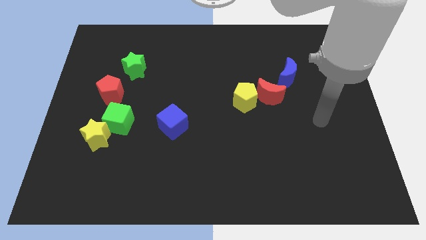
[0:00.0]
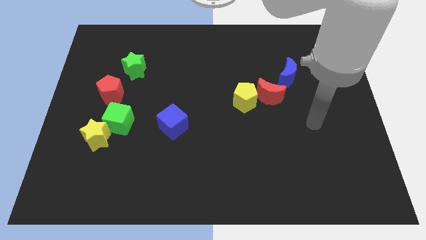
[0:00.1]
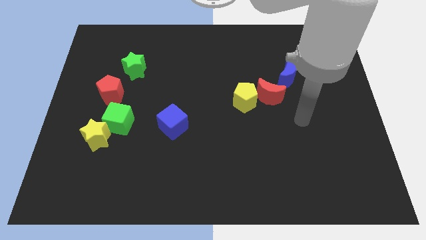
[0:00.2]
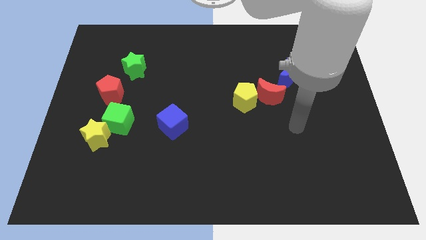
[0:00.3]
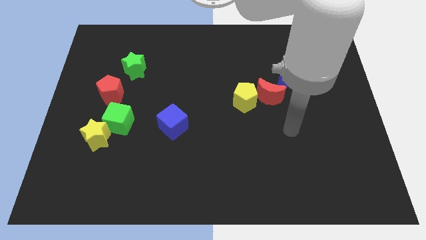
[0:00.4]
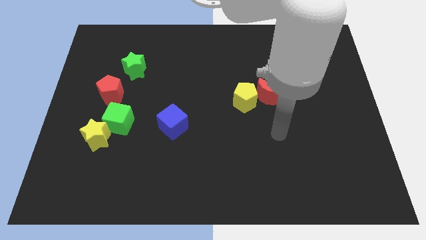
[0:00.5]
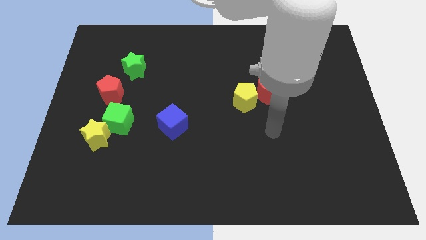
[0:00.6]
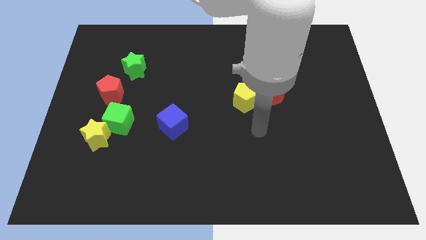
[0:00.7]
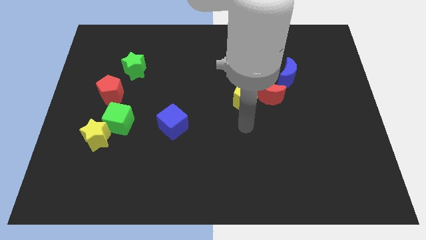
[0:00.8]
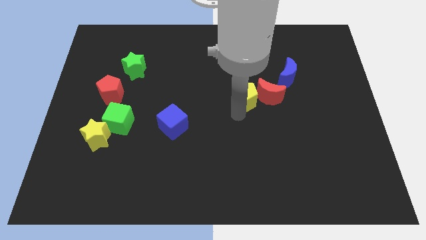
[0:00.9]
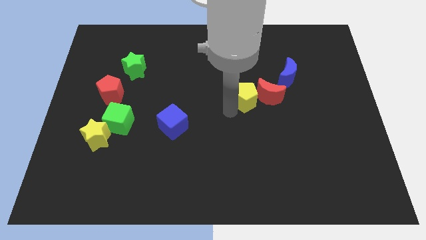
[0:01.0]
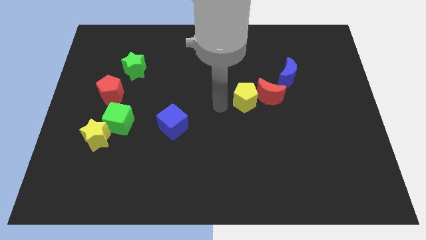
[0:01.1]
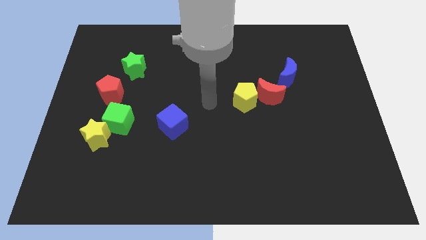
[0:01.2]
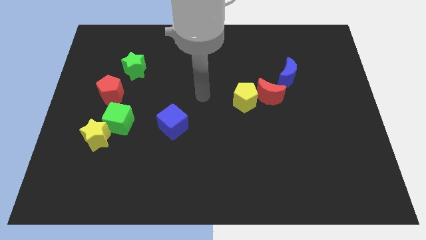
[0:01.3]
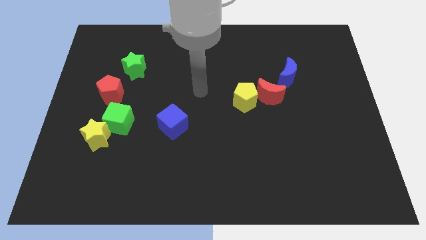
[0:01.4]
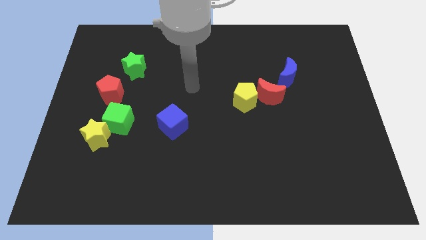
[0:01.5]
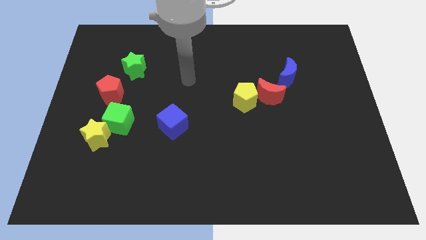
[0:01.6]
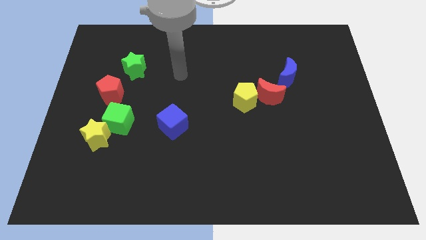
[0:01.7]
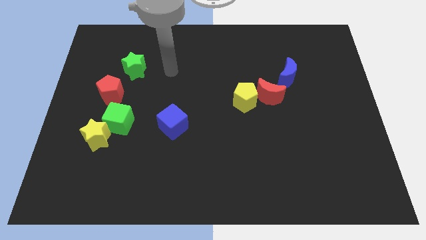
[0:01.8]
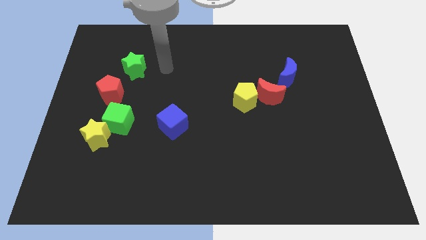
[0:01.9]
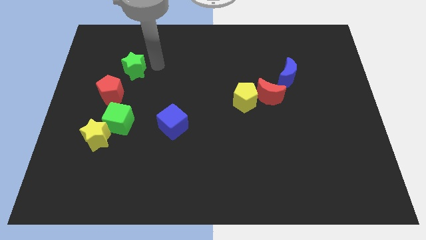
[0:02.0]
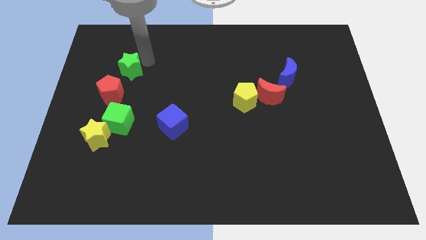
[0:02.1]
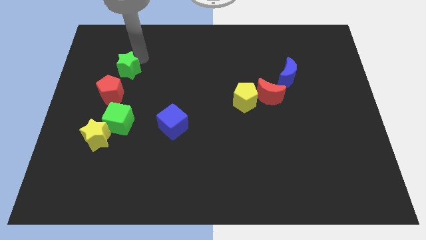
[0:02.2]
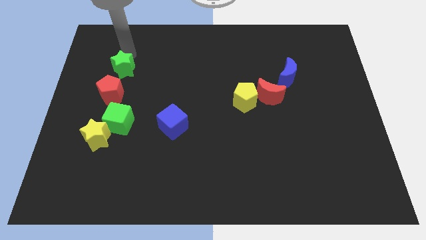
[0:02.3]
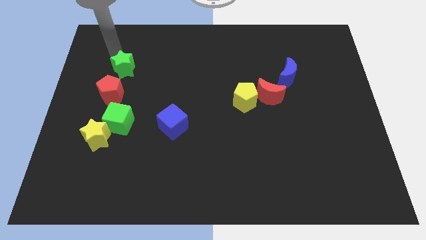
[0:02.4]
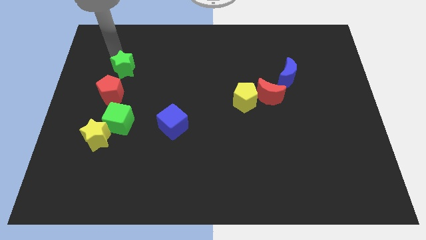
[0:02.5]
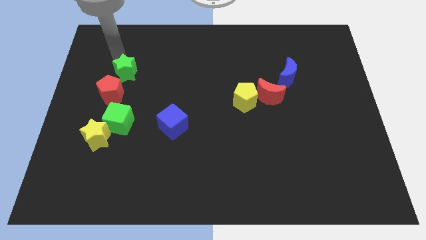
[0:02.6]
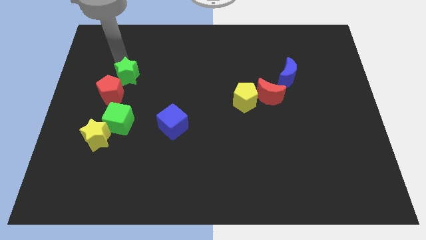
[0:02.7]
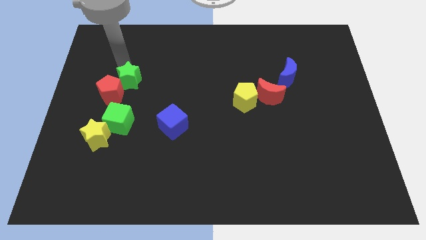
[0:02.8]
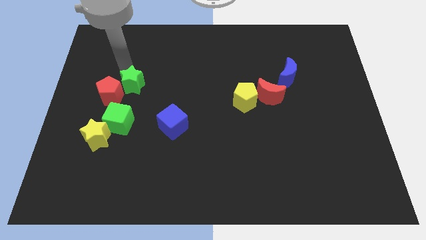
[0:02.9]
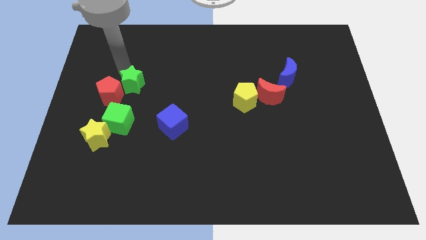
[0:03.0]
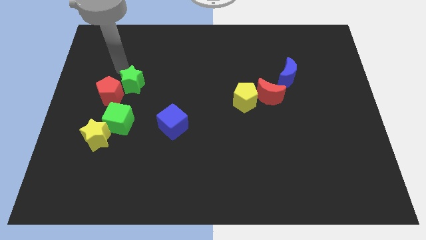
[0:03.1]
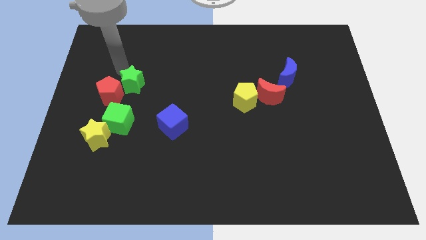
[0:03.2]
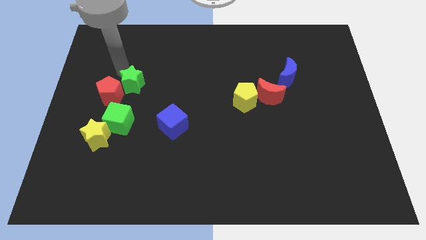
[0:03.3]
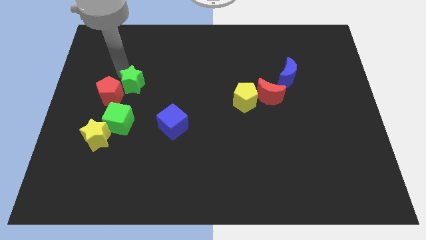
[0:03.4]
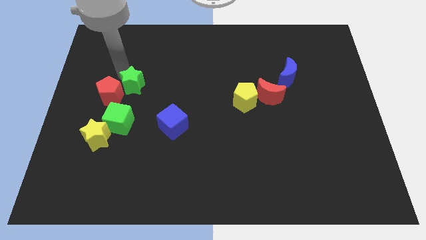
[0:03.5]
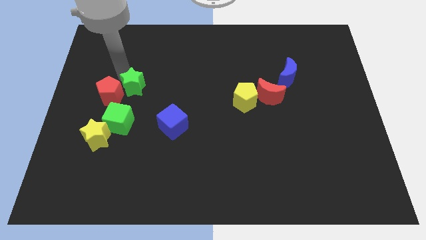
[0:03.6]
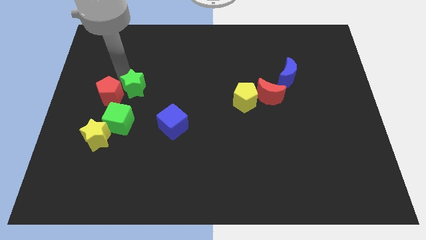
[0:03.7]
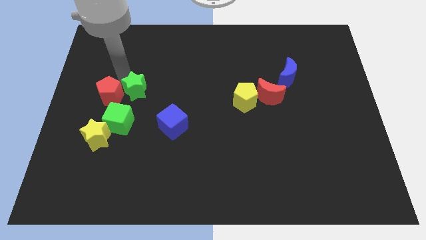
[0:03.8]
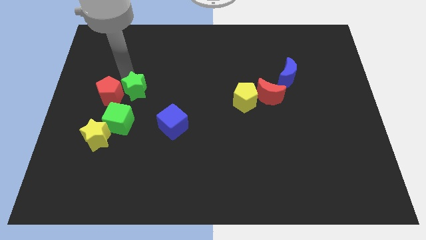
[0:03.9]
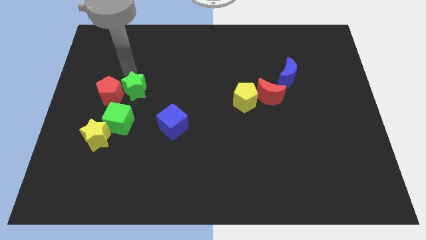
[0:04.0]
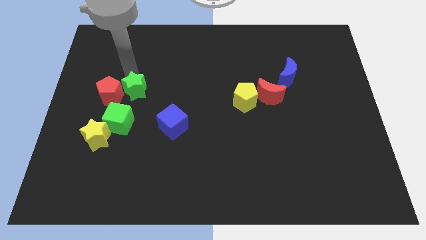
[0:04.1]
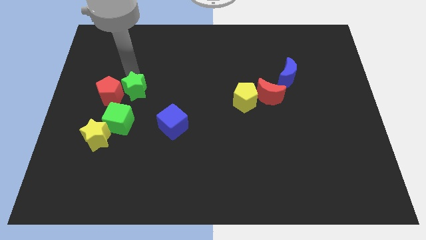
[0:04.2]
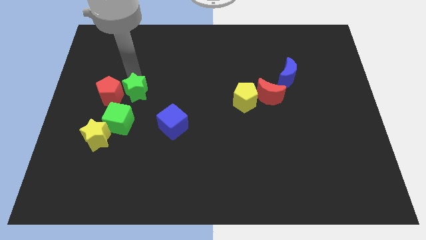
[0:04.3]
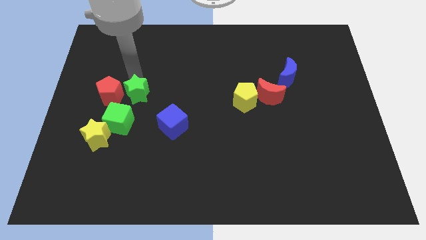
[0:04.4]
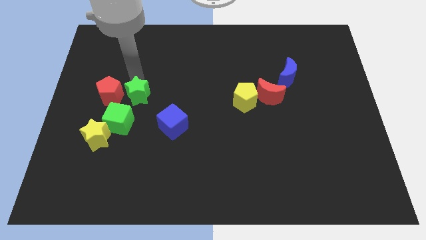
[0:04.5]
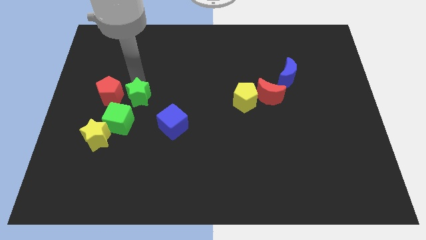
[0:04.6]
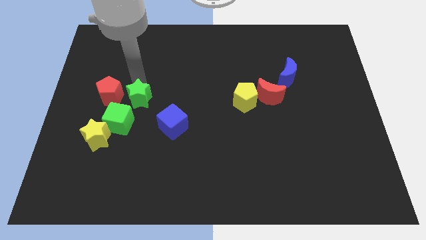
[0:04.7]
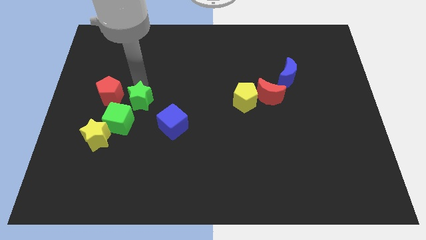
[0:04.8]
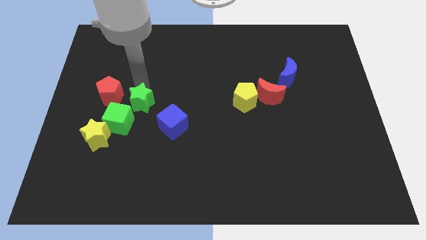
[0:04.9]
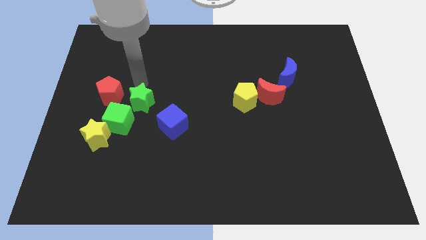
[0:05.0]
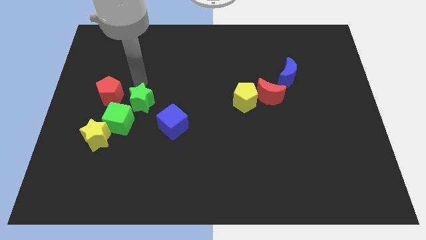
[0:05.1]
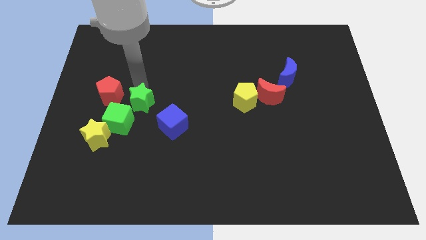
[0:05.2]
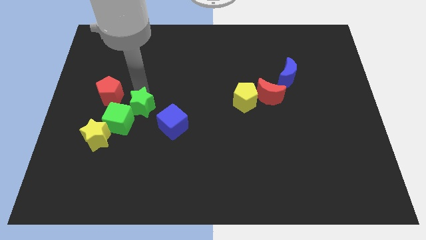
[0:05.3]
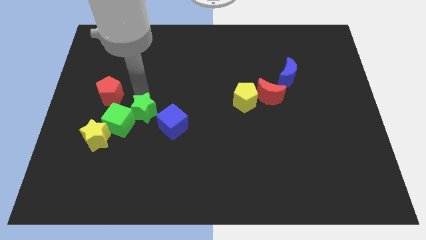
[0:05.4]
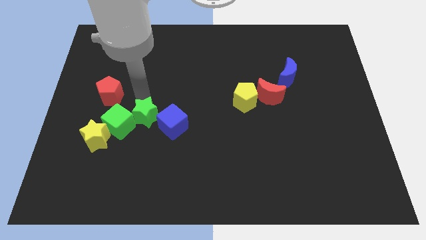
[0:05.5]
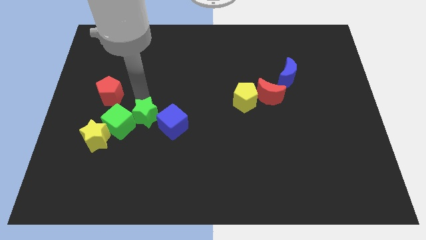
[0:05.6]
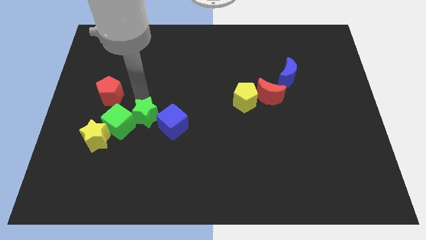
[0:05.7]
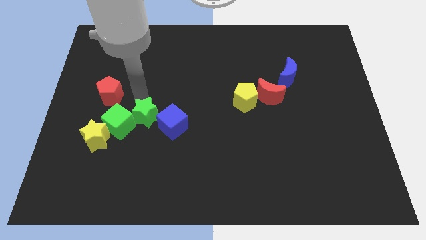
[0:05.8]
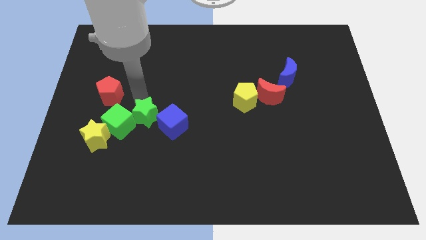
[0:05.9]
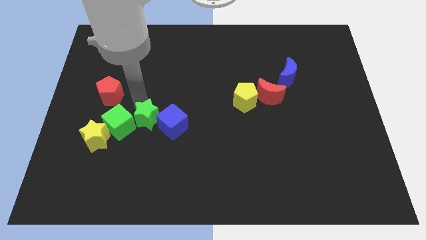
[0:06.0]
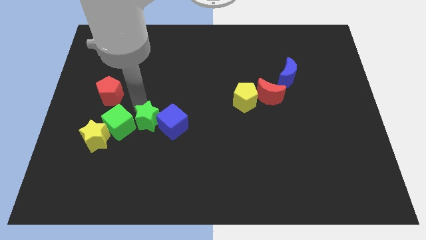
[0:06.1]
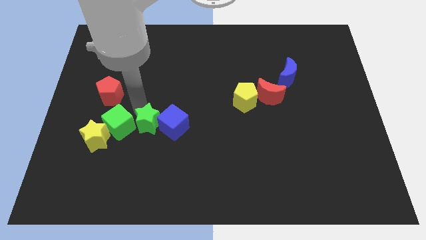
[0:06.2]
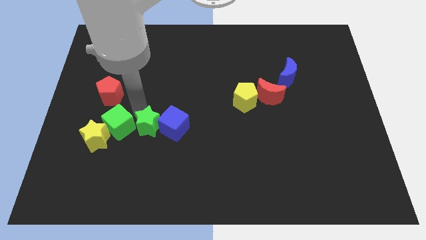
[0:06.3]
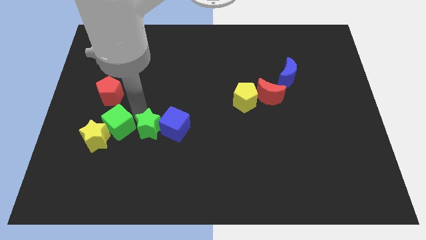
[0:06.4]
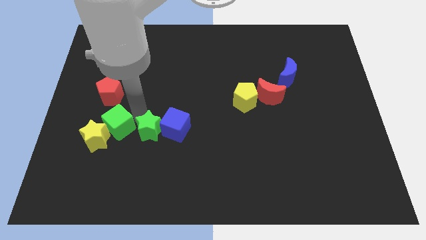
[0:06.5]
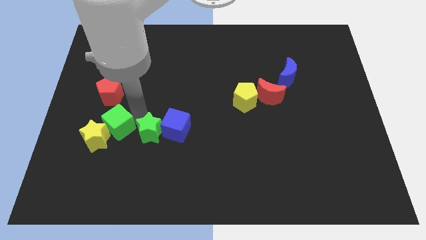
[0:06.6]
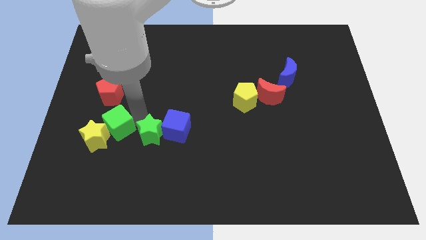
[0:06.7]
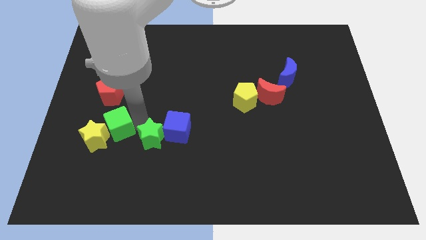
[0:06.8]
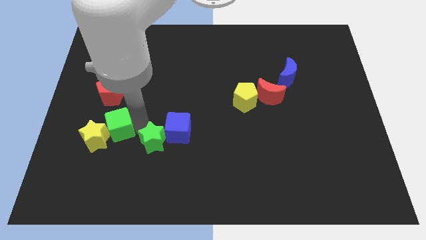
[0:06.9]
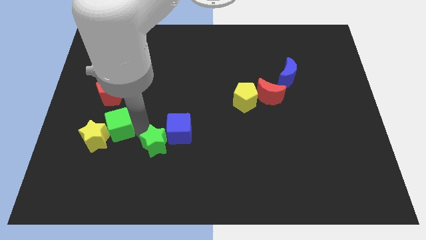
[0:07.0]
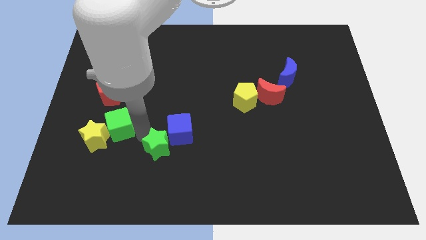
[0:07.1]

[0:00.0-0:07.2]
move the green star below the blue cube

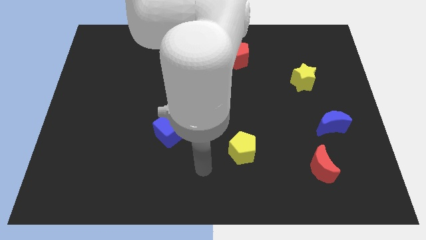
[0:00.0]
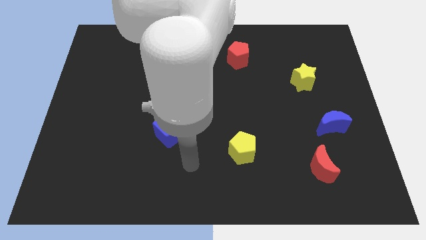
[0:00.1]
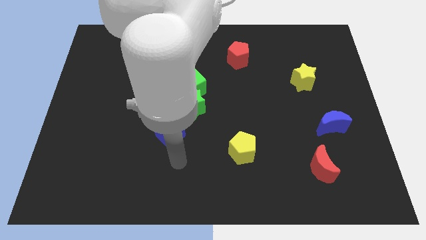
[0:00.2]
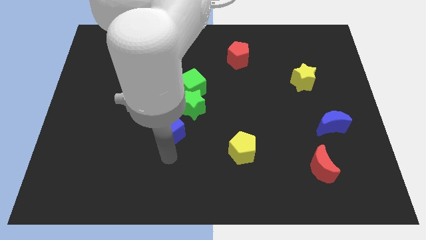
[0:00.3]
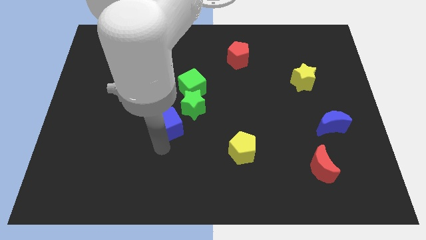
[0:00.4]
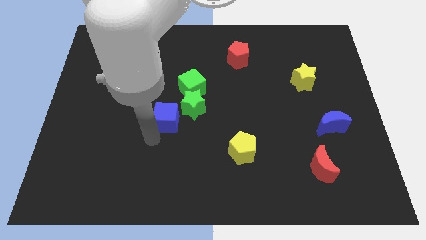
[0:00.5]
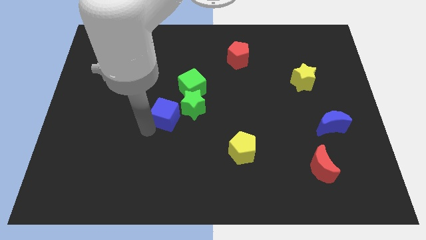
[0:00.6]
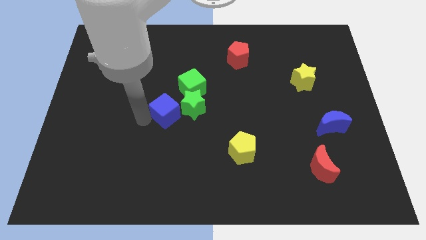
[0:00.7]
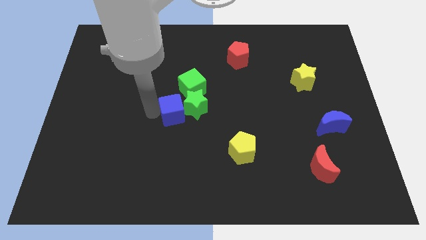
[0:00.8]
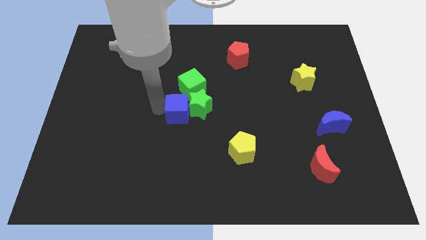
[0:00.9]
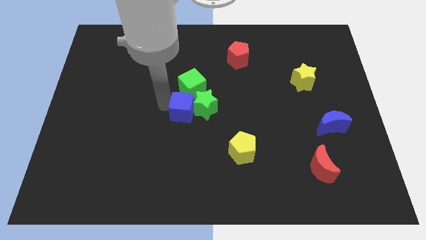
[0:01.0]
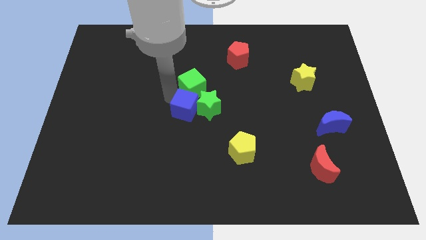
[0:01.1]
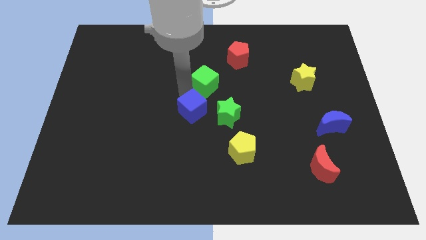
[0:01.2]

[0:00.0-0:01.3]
put the green star diagonally up and to the left of the yellow pentagon
